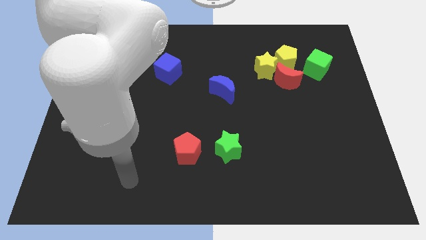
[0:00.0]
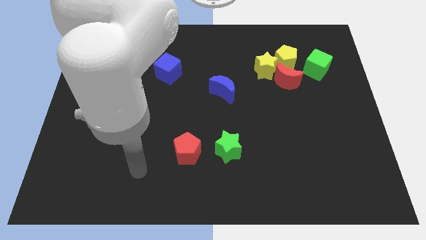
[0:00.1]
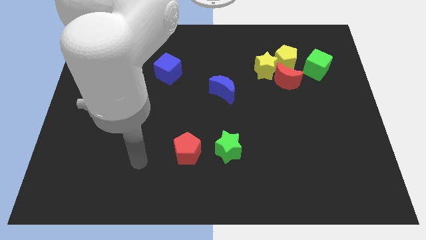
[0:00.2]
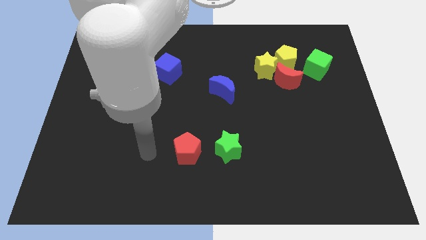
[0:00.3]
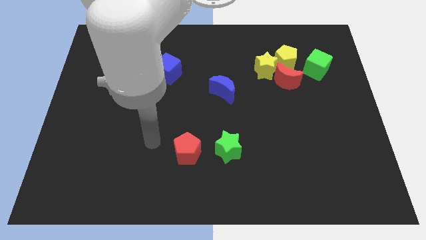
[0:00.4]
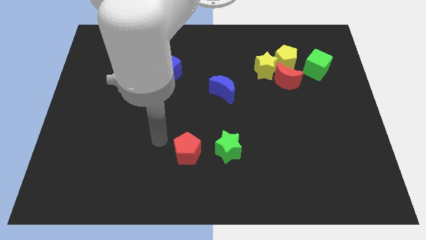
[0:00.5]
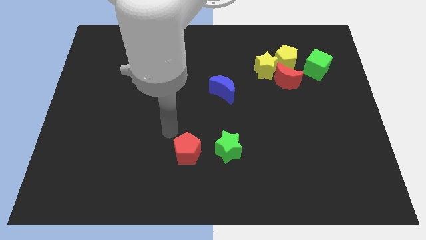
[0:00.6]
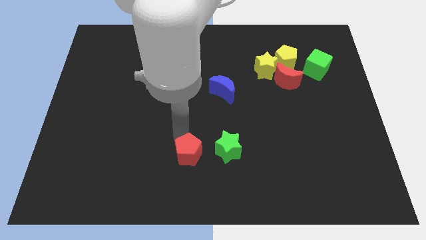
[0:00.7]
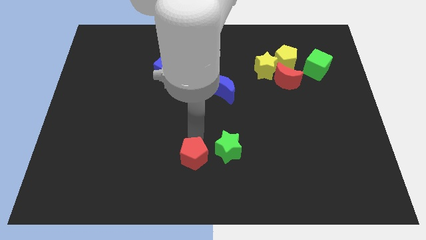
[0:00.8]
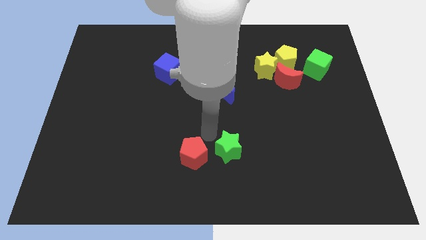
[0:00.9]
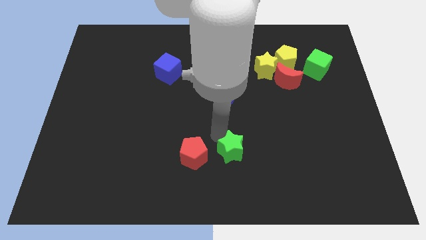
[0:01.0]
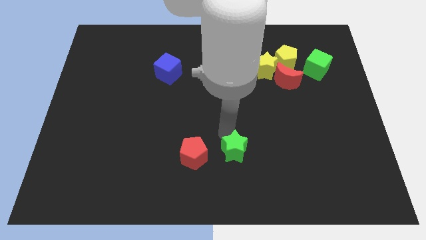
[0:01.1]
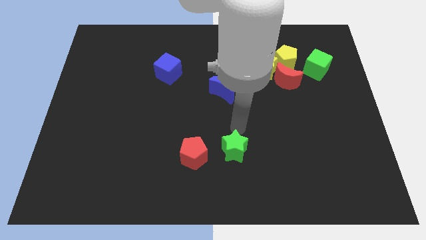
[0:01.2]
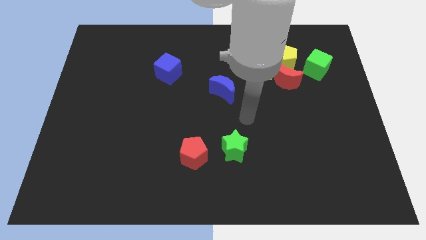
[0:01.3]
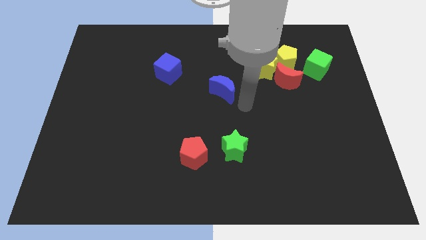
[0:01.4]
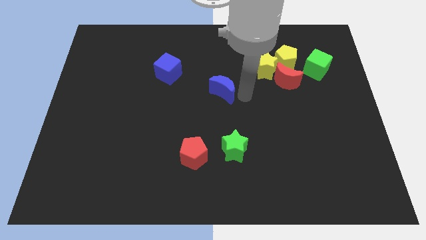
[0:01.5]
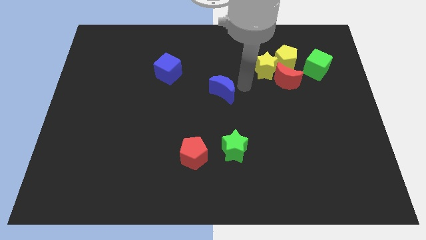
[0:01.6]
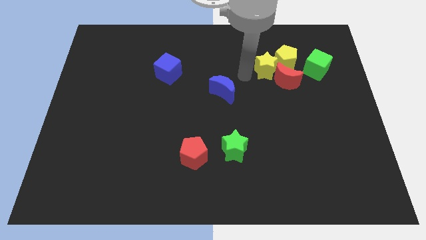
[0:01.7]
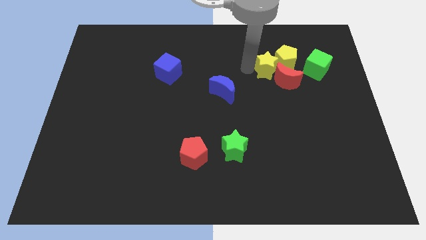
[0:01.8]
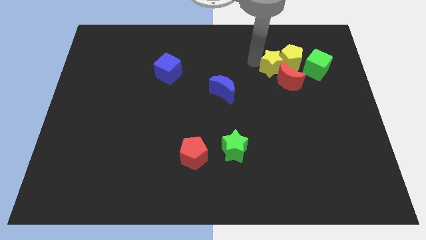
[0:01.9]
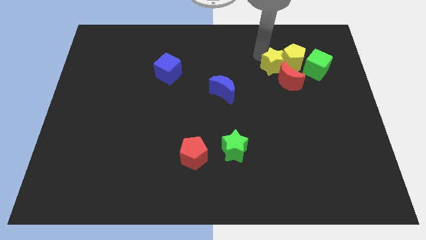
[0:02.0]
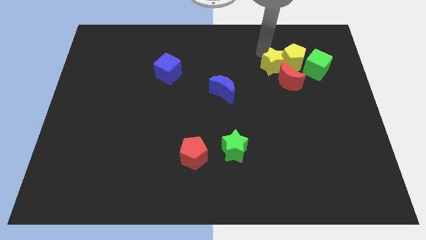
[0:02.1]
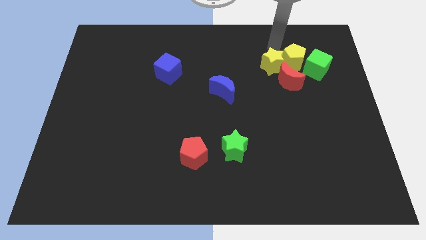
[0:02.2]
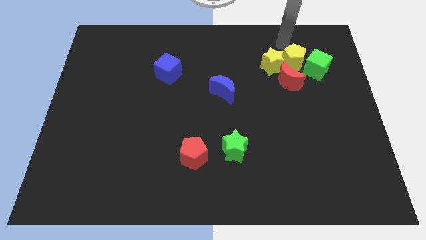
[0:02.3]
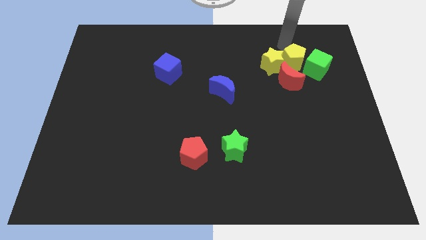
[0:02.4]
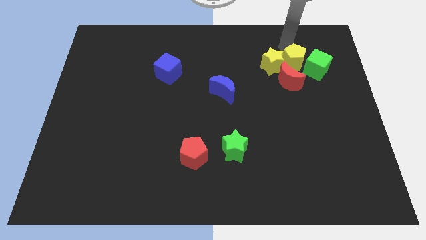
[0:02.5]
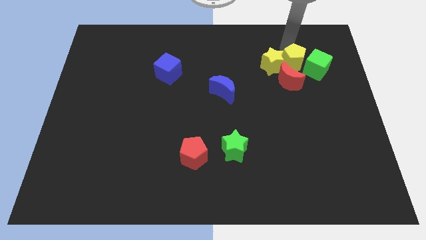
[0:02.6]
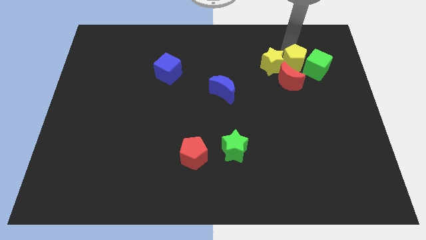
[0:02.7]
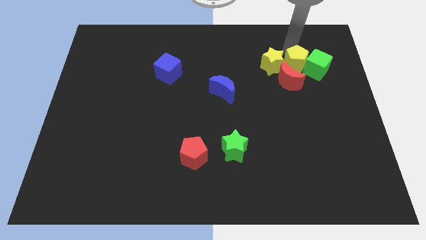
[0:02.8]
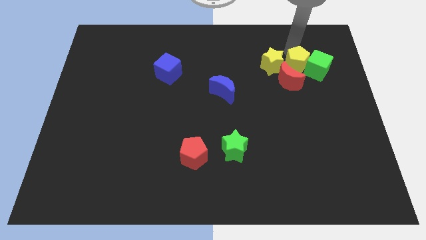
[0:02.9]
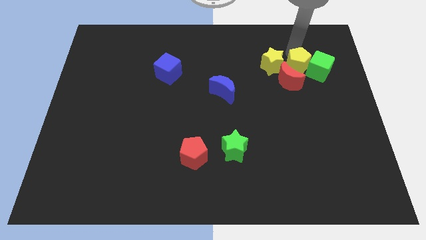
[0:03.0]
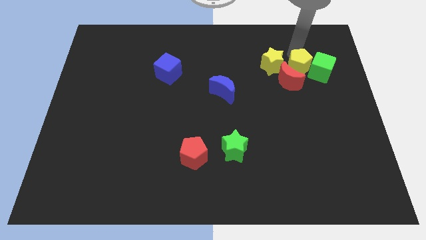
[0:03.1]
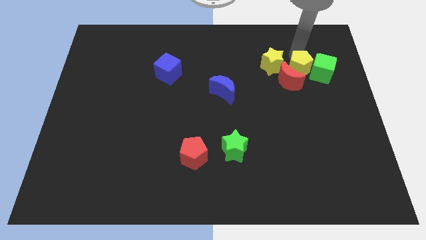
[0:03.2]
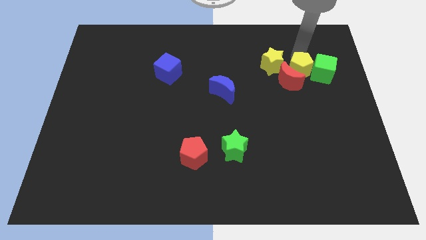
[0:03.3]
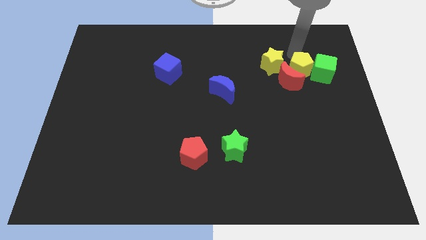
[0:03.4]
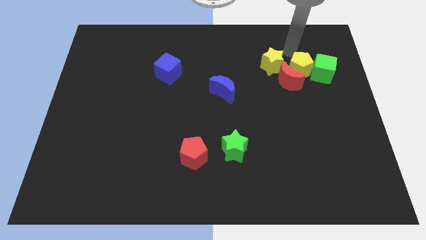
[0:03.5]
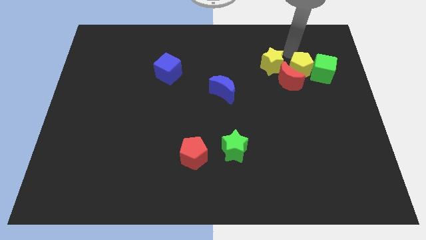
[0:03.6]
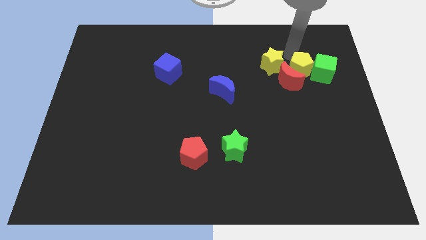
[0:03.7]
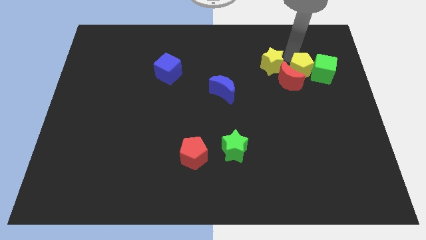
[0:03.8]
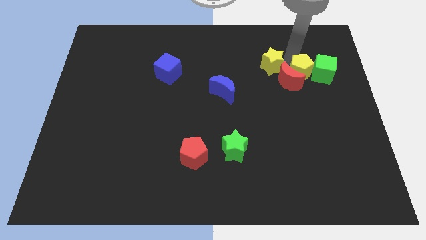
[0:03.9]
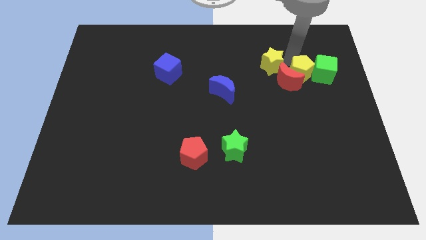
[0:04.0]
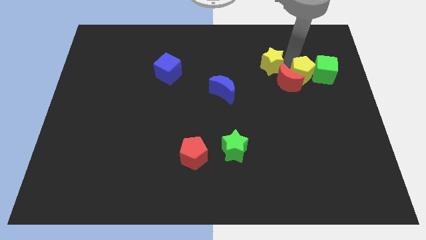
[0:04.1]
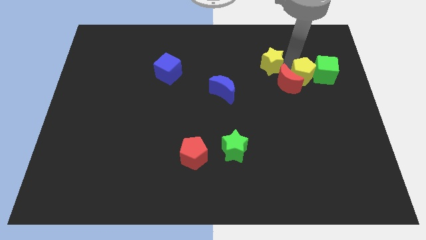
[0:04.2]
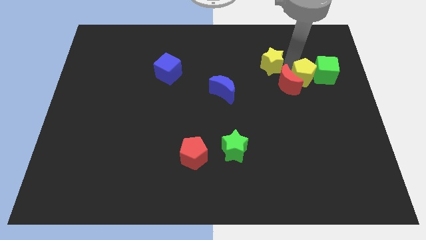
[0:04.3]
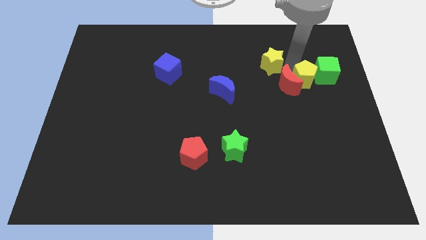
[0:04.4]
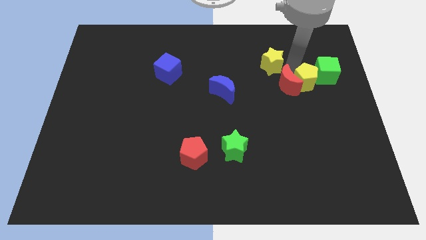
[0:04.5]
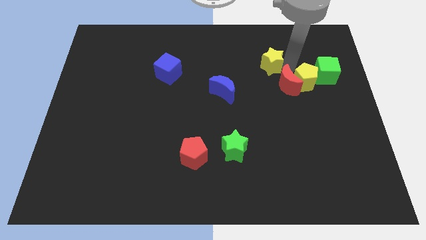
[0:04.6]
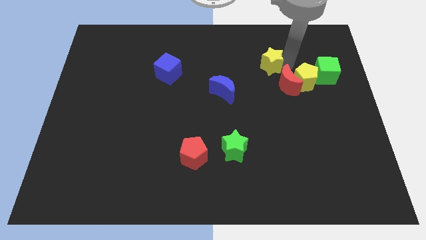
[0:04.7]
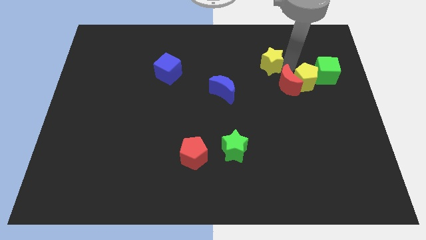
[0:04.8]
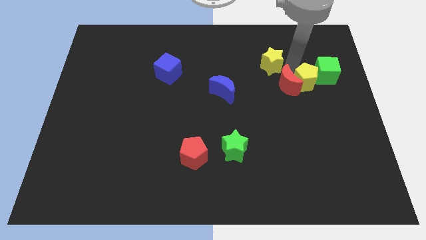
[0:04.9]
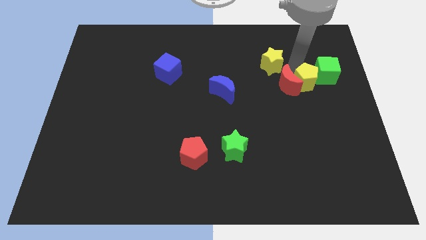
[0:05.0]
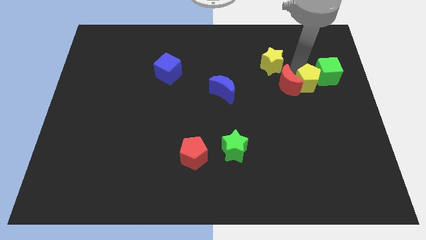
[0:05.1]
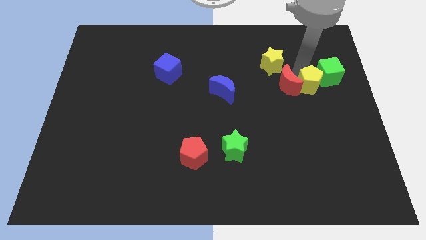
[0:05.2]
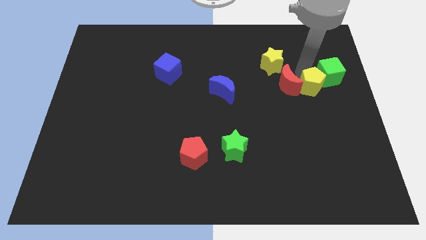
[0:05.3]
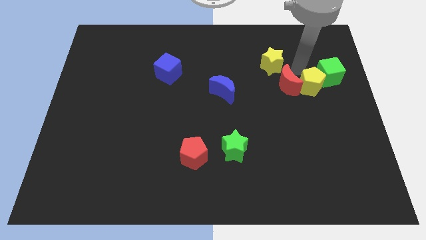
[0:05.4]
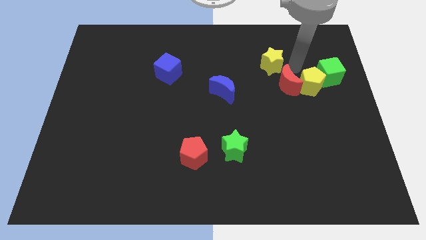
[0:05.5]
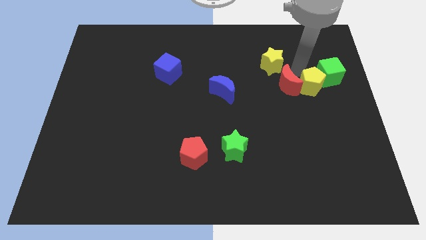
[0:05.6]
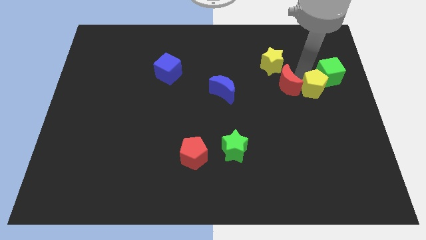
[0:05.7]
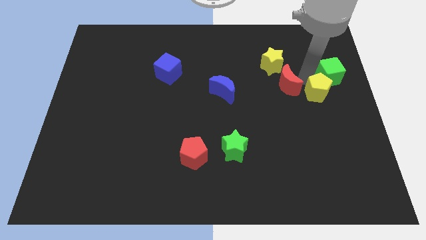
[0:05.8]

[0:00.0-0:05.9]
push the yellow pentagon to the center right

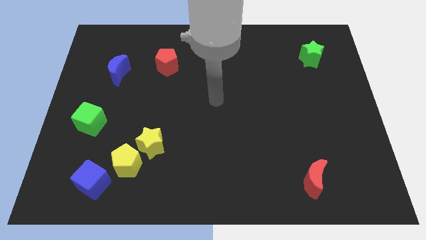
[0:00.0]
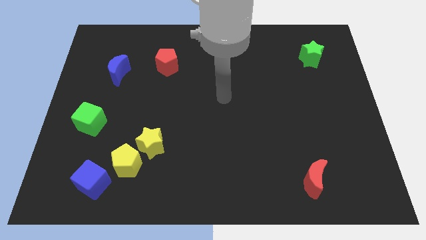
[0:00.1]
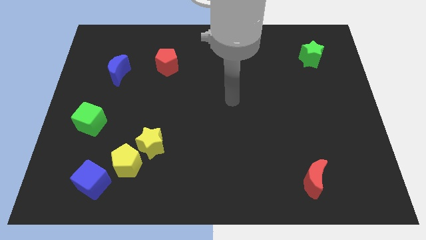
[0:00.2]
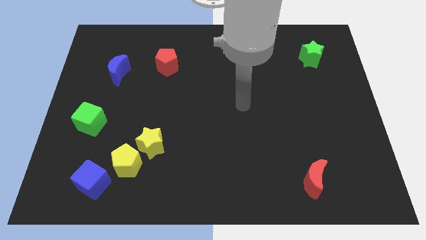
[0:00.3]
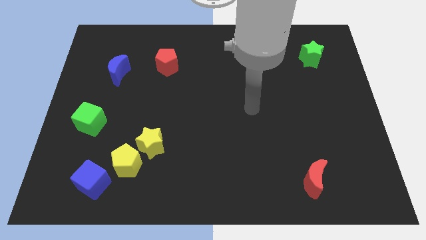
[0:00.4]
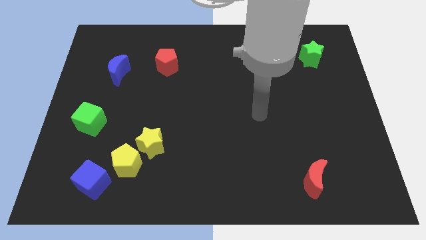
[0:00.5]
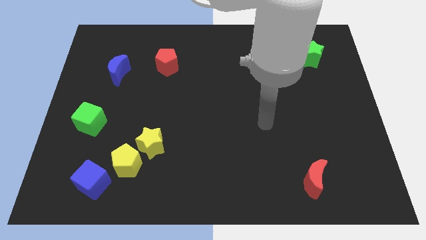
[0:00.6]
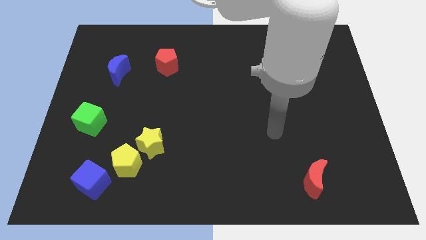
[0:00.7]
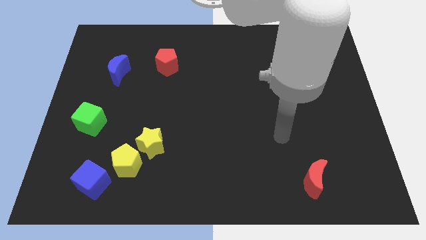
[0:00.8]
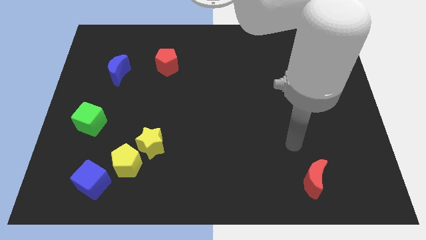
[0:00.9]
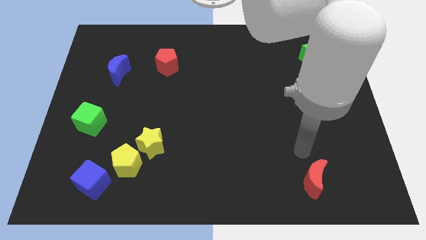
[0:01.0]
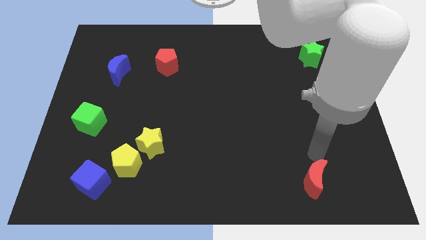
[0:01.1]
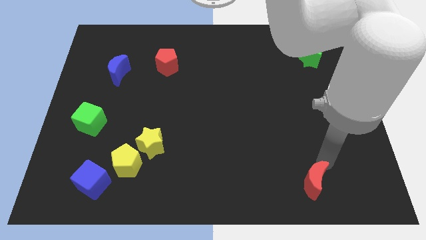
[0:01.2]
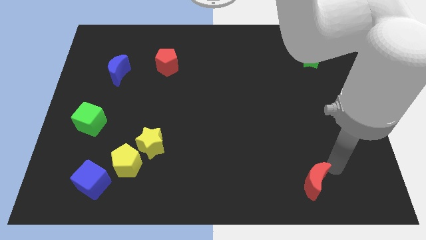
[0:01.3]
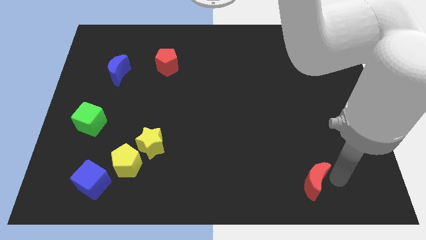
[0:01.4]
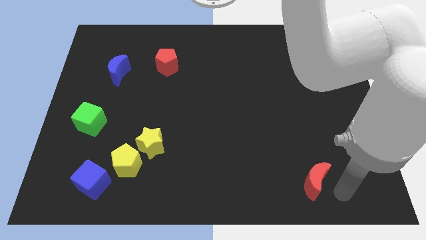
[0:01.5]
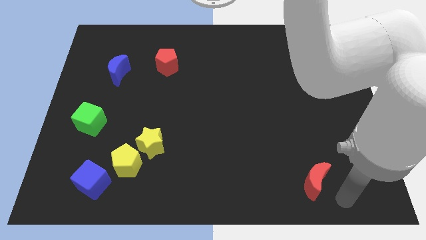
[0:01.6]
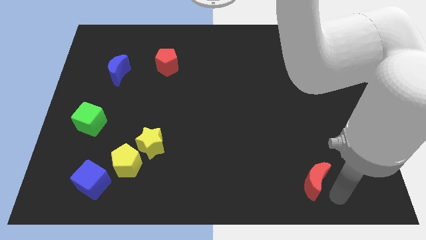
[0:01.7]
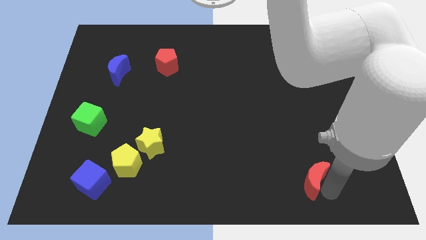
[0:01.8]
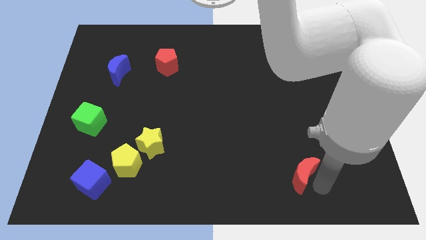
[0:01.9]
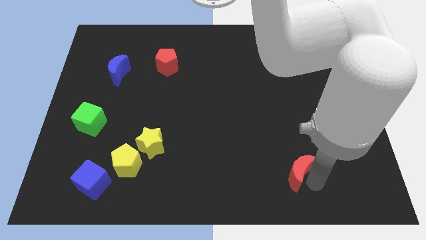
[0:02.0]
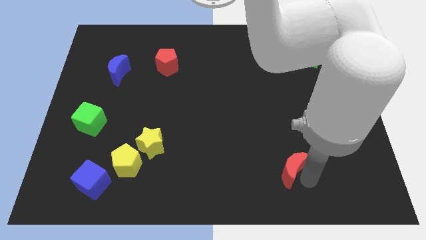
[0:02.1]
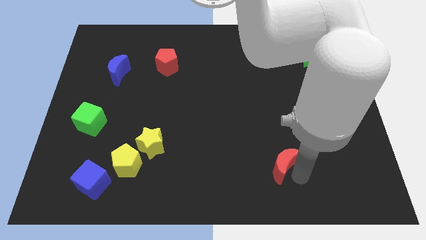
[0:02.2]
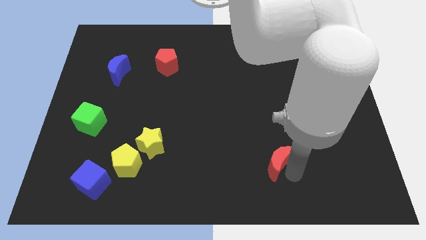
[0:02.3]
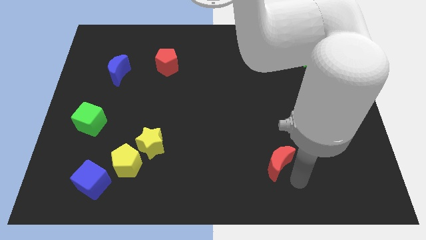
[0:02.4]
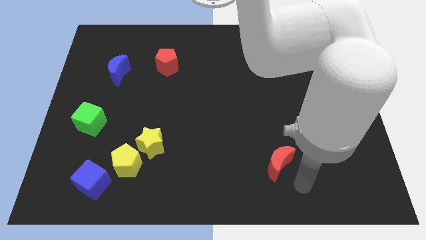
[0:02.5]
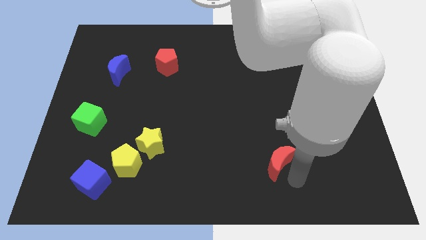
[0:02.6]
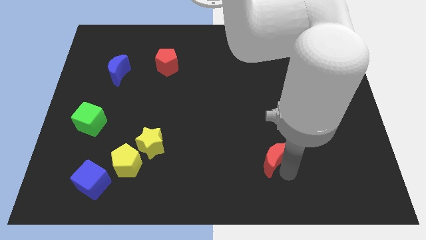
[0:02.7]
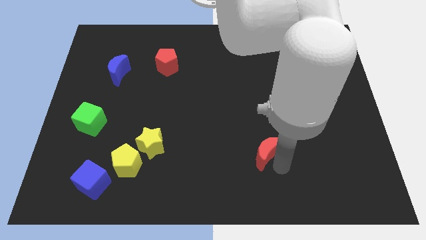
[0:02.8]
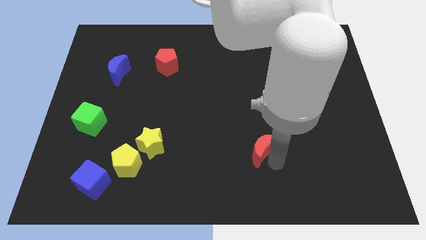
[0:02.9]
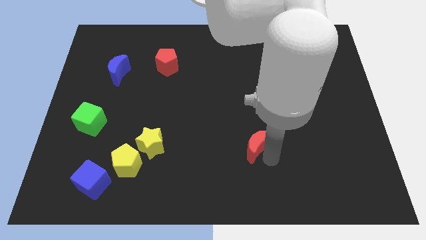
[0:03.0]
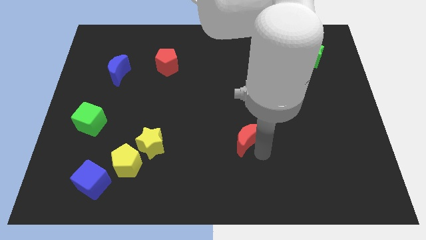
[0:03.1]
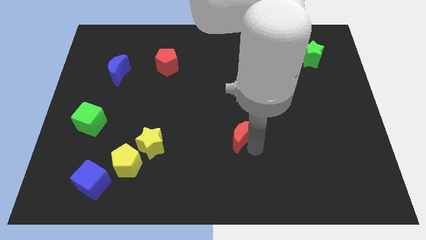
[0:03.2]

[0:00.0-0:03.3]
push the red moon to the middle
